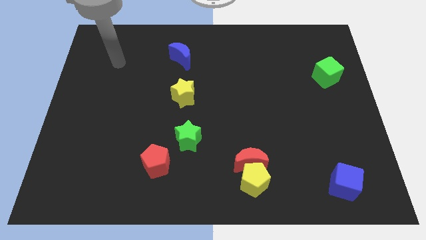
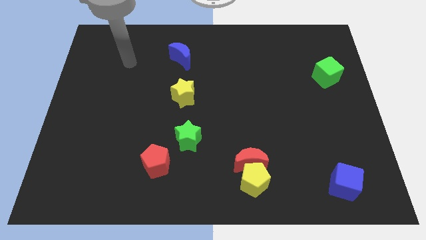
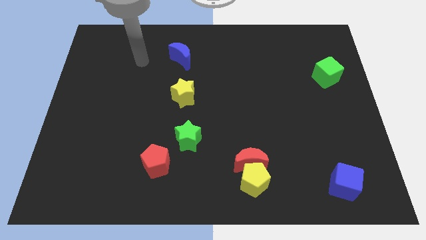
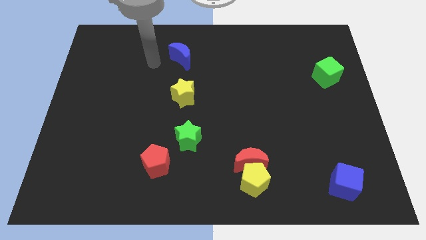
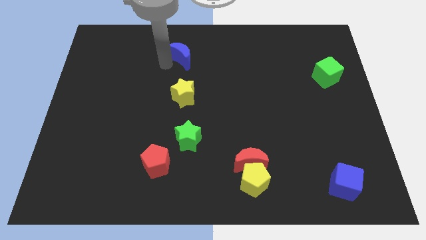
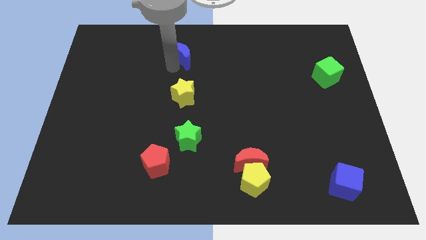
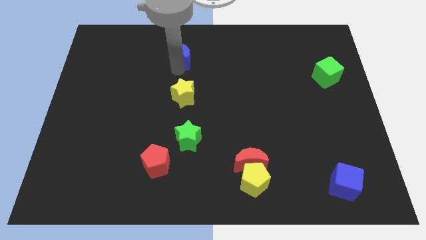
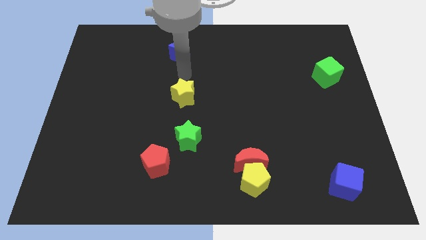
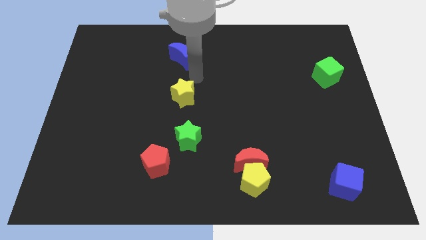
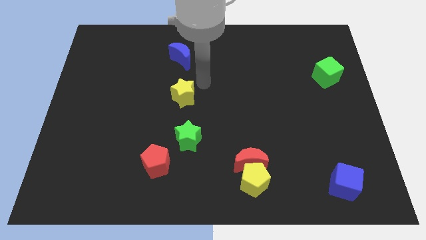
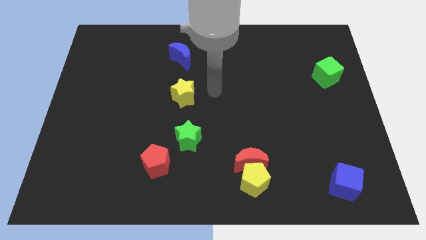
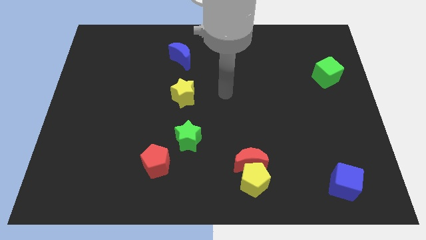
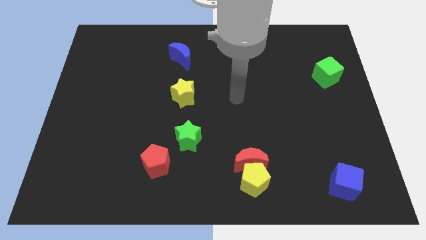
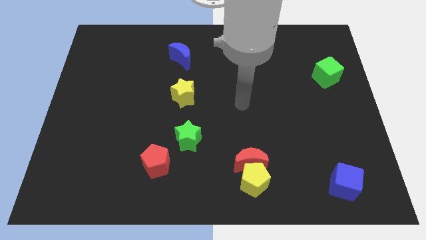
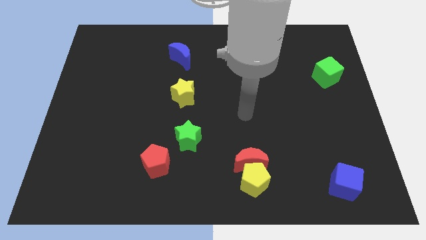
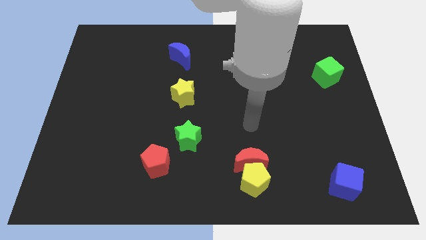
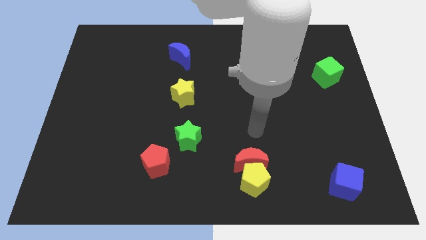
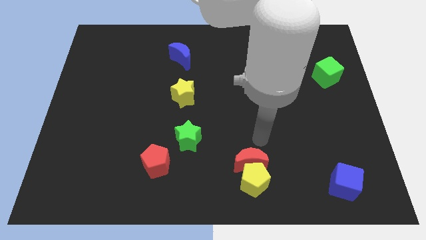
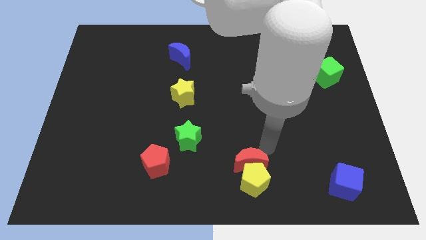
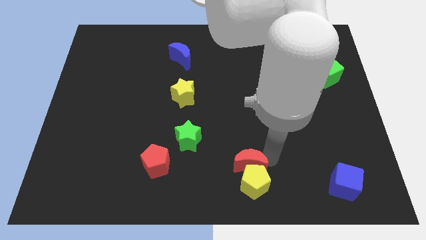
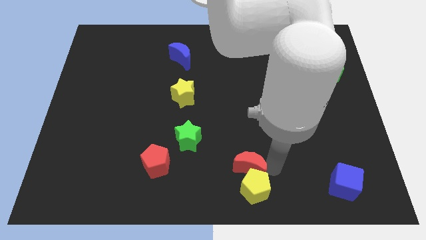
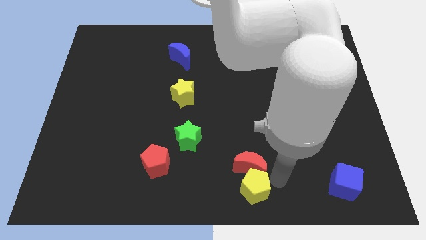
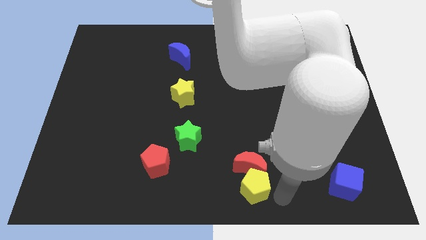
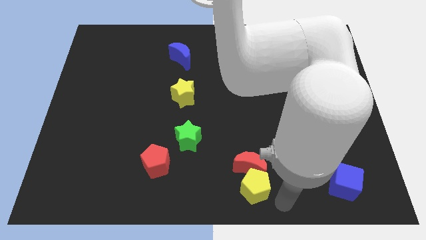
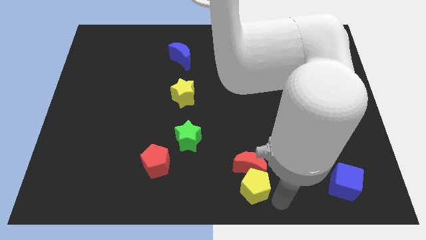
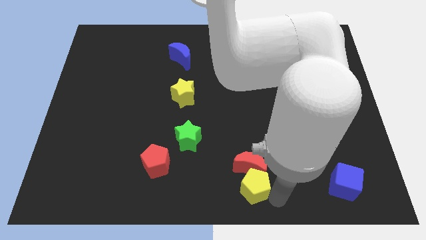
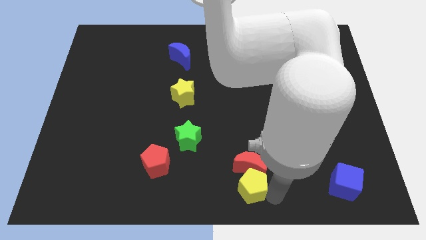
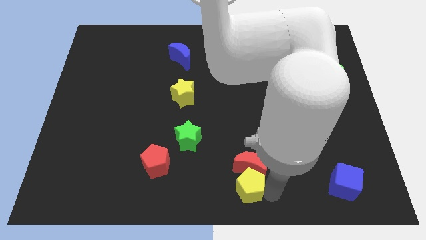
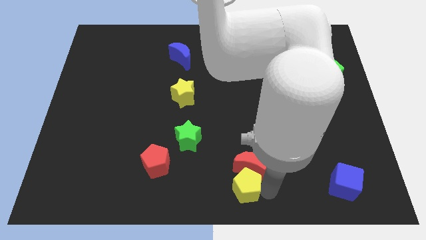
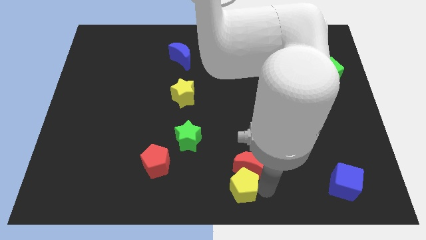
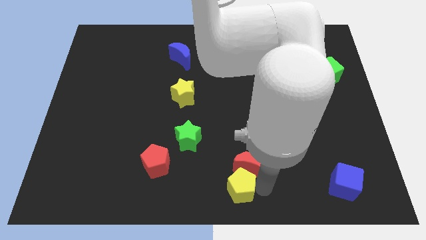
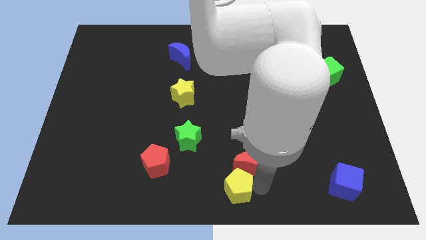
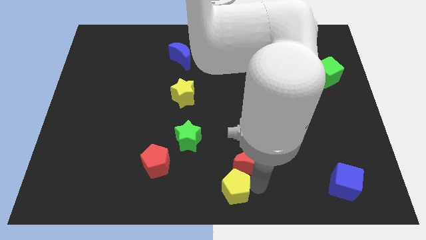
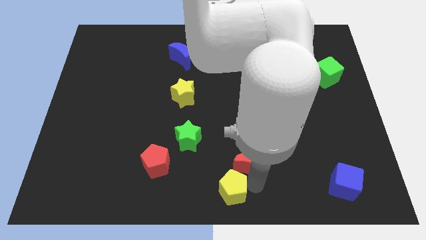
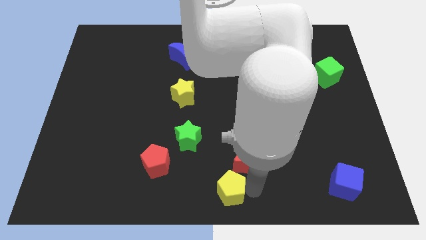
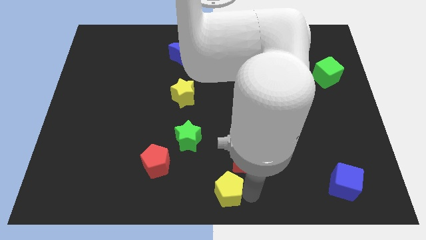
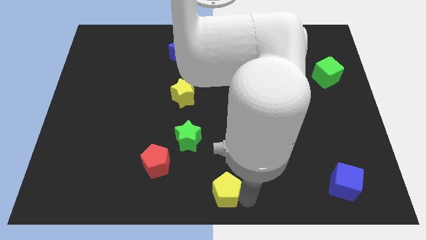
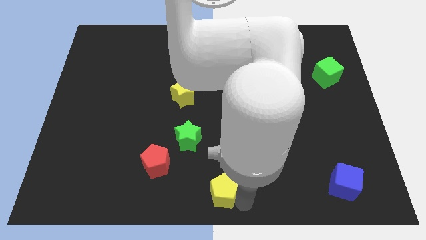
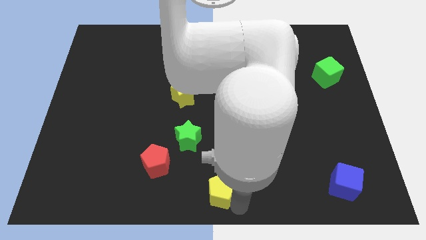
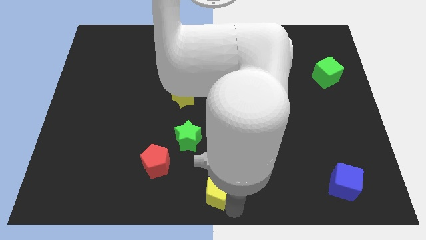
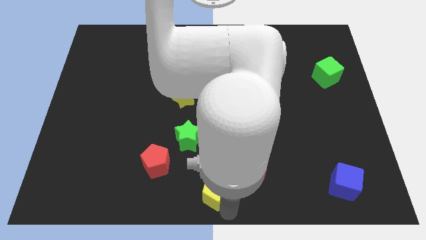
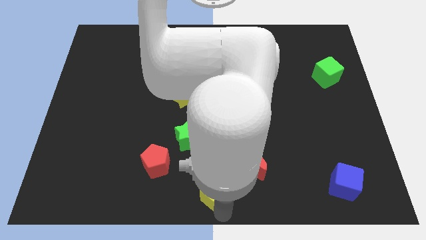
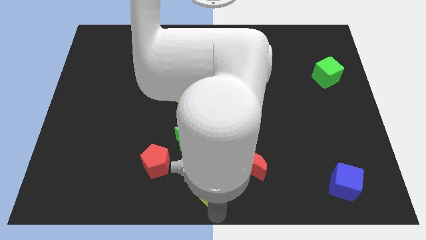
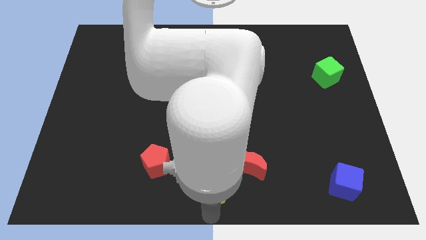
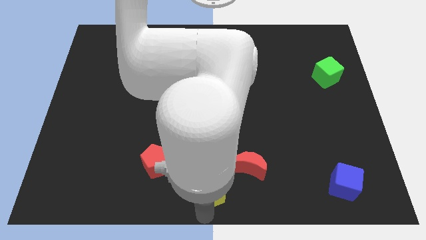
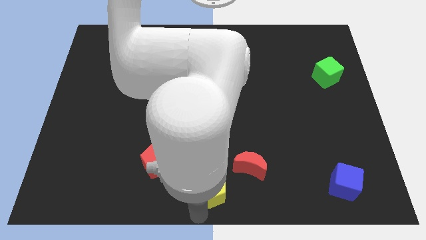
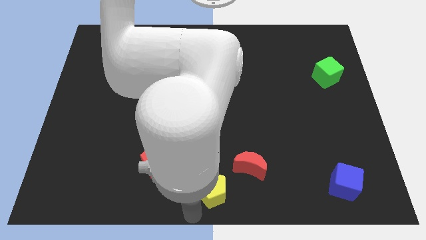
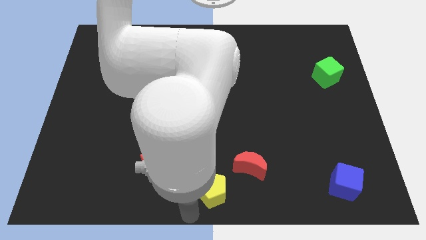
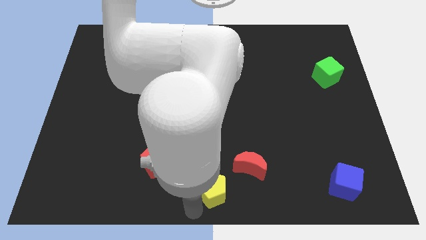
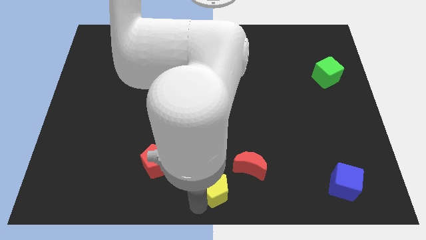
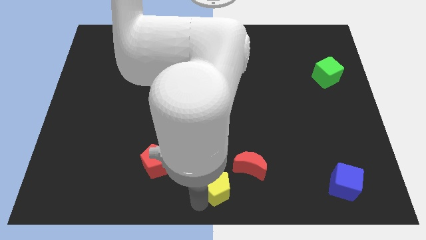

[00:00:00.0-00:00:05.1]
put the yellow pentagon to the left of the red moon

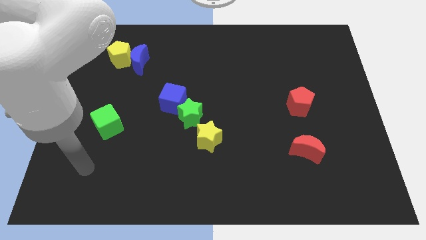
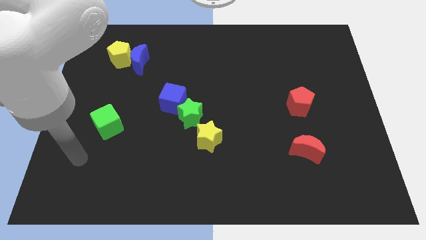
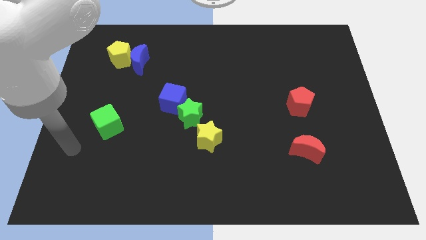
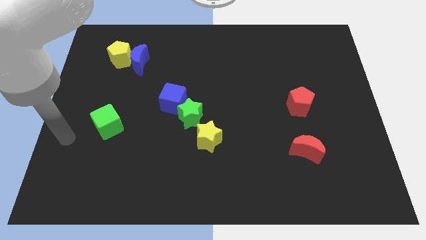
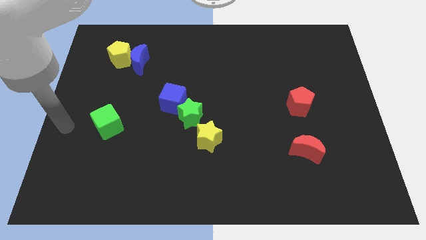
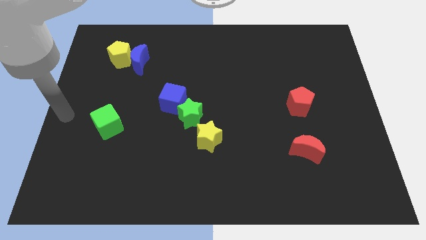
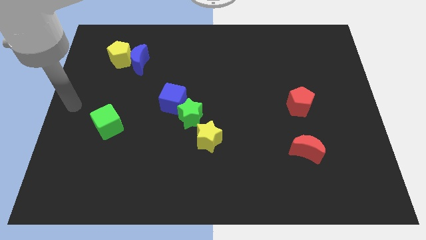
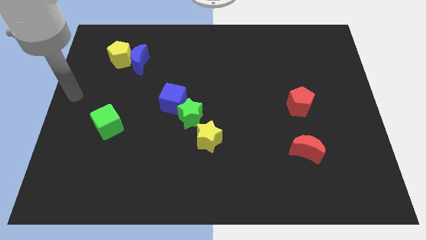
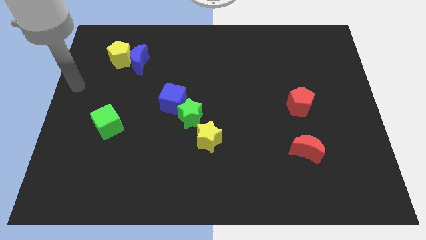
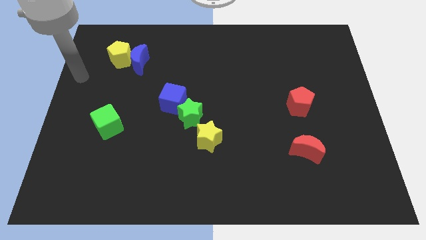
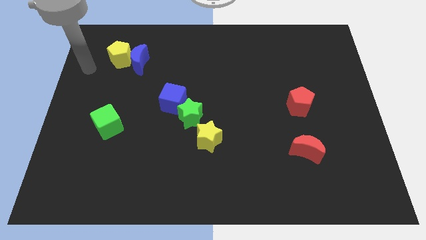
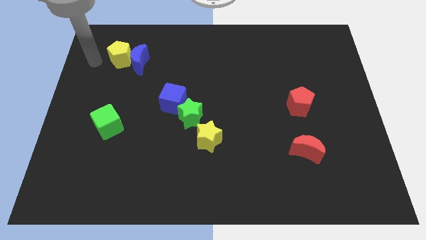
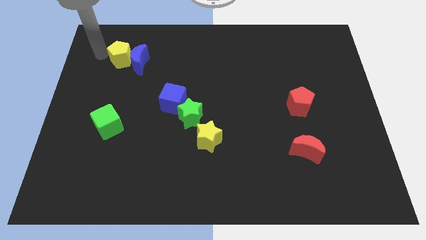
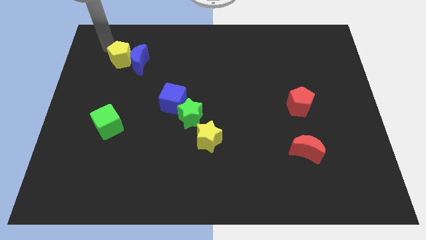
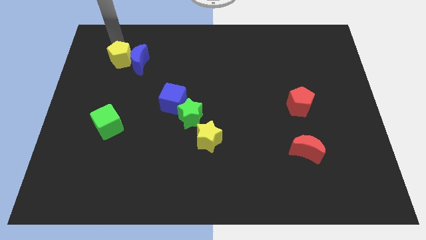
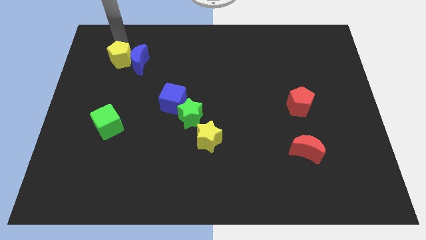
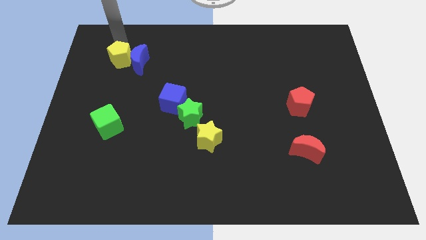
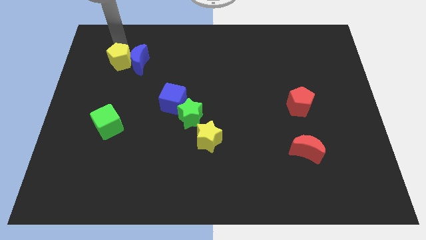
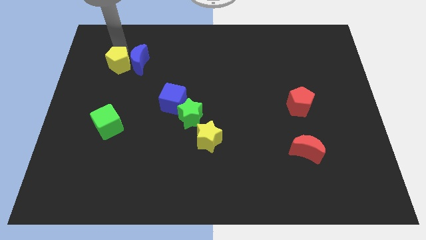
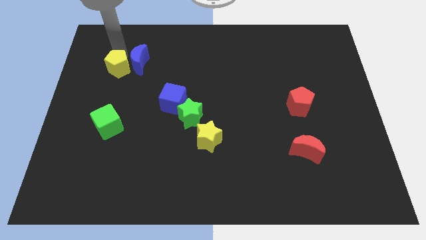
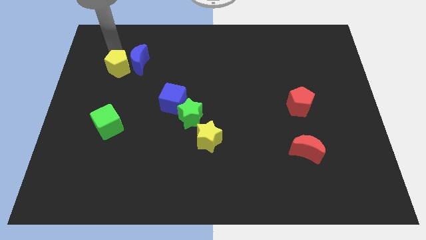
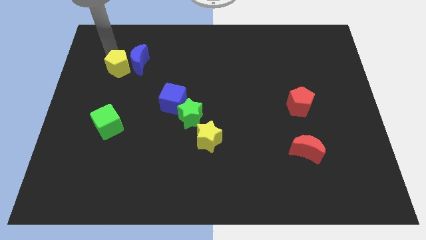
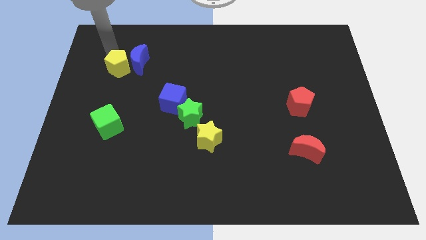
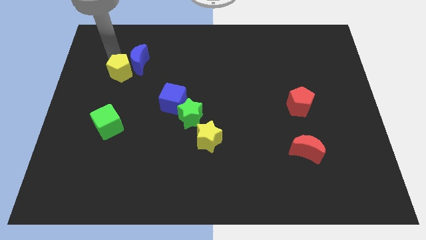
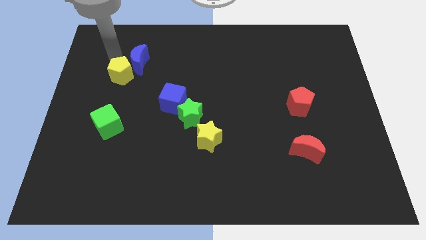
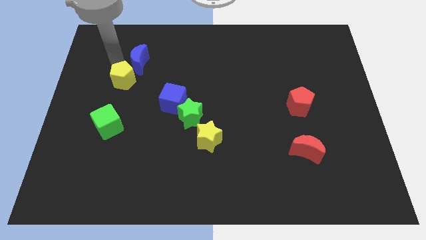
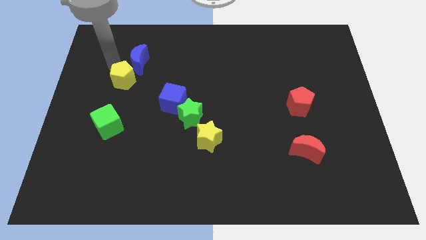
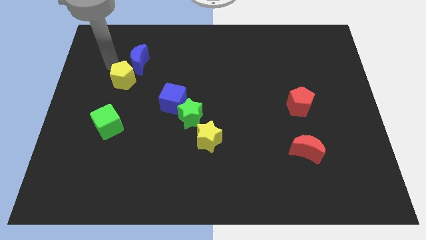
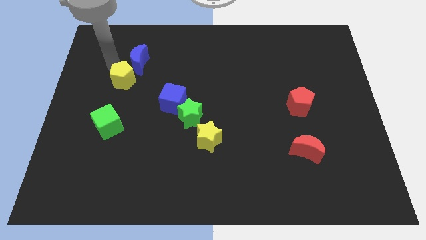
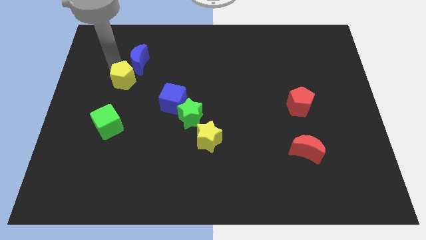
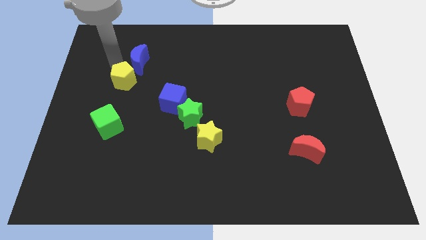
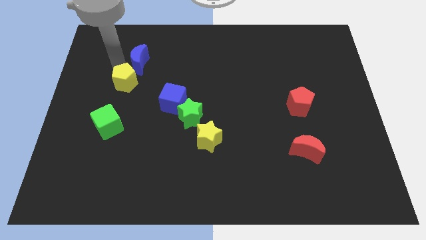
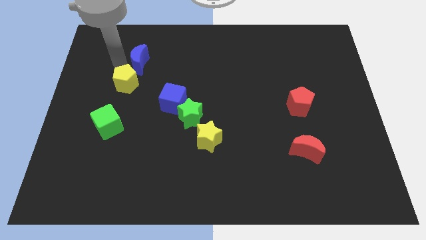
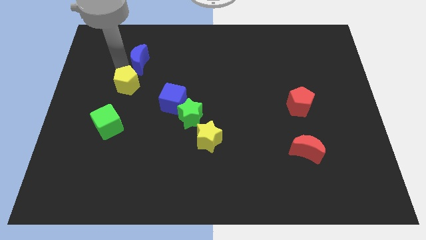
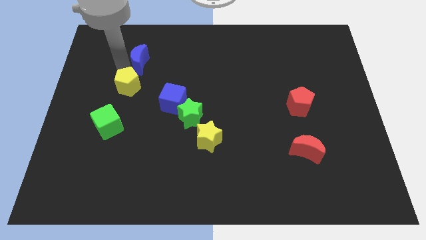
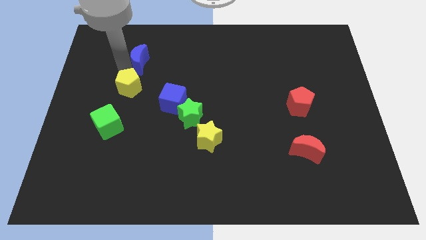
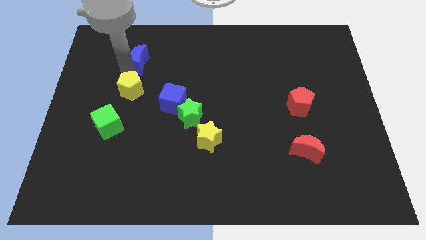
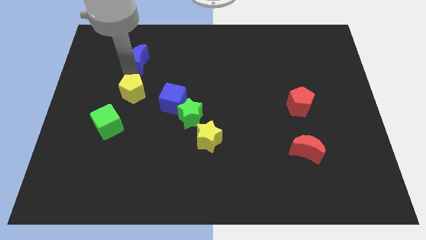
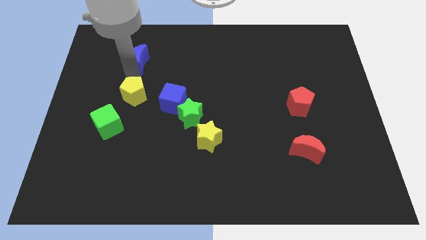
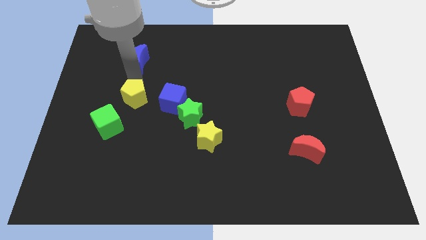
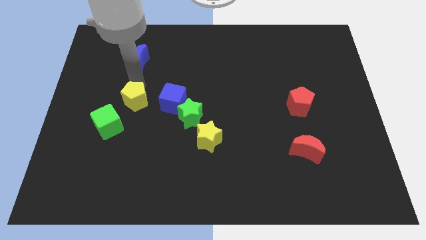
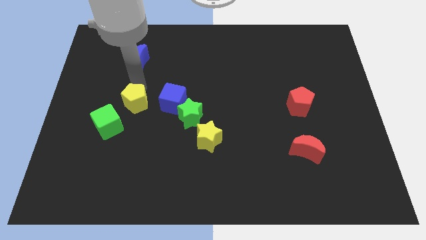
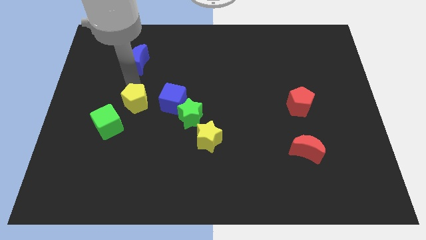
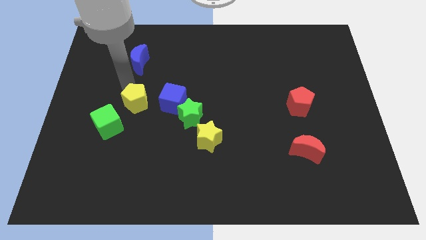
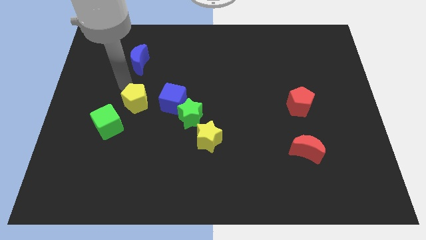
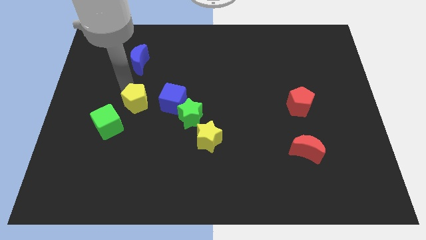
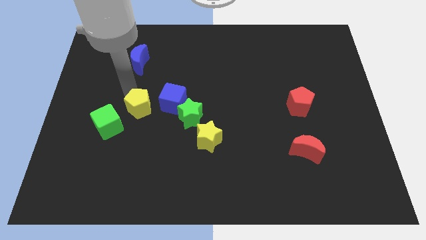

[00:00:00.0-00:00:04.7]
push the yellow pentagon to the bottom left side of the blue cube
